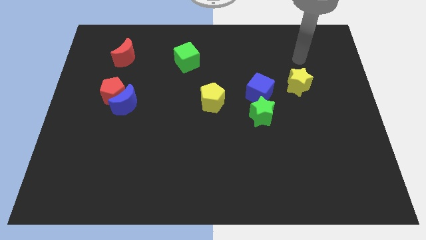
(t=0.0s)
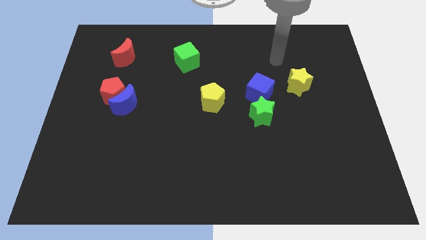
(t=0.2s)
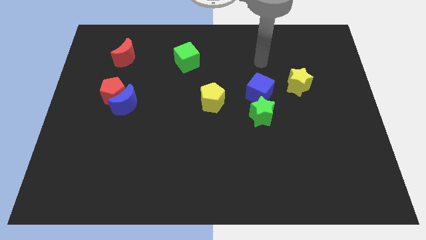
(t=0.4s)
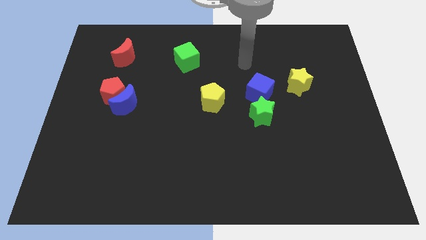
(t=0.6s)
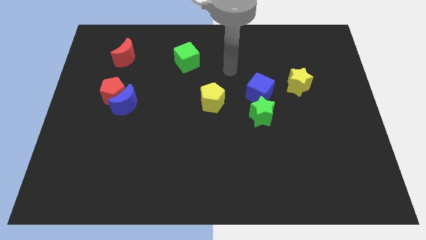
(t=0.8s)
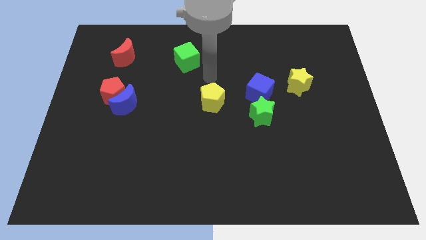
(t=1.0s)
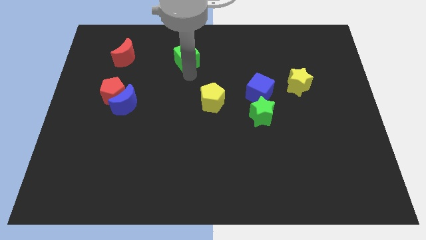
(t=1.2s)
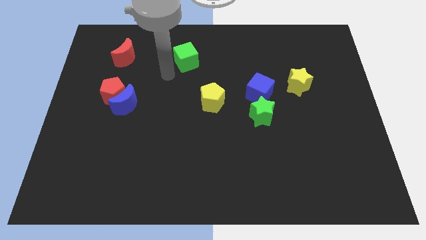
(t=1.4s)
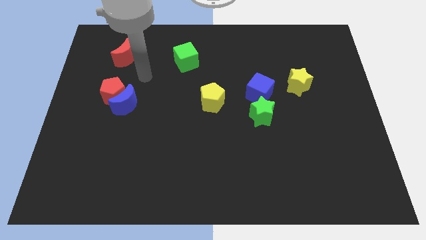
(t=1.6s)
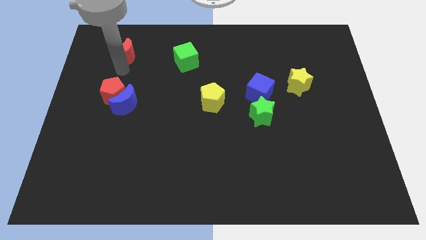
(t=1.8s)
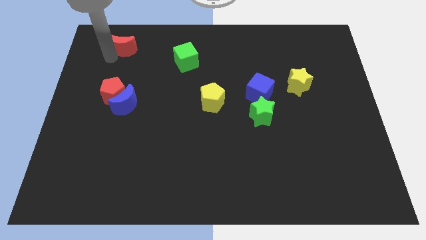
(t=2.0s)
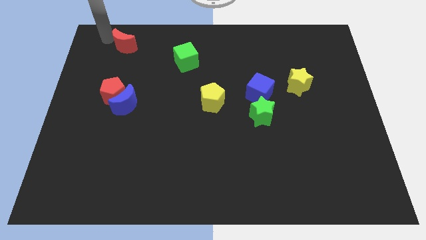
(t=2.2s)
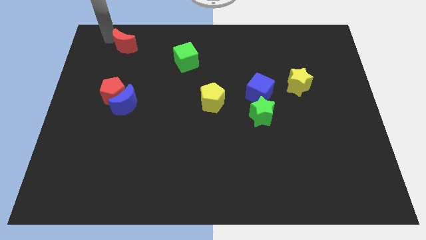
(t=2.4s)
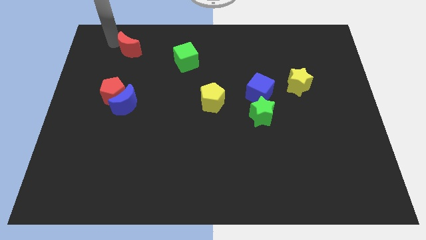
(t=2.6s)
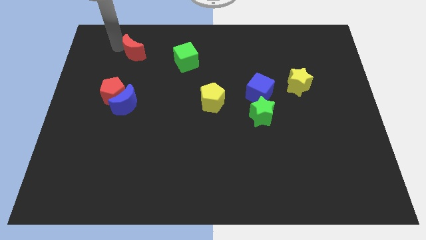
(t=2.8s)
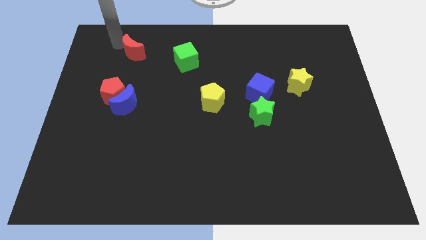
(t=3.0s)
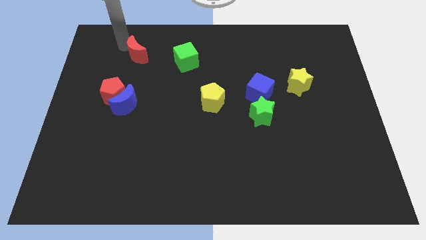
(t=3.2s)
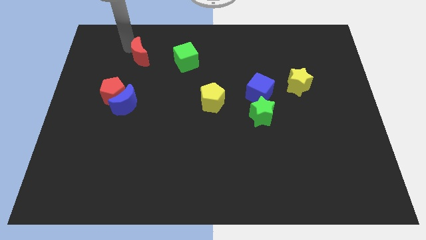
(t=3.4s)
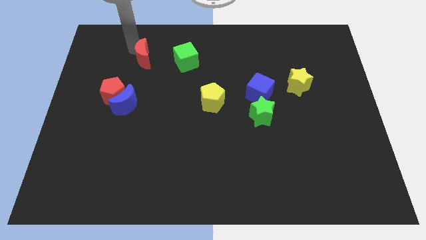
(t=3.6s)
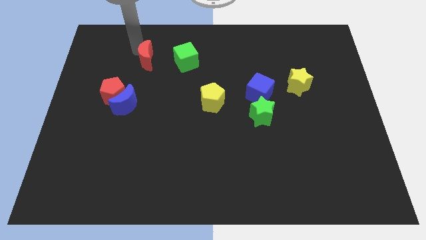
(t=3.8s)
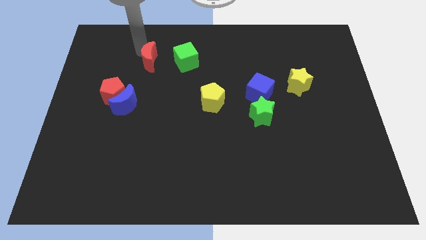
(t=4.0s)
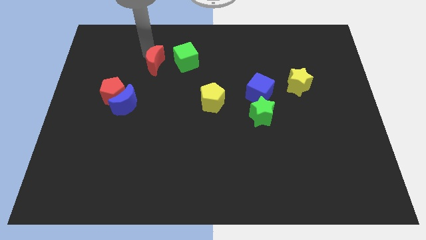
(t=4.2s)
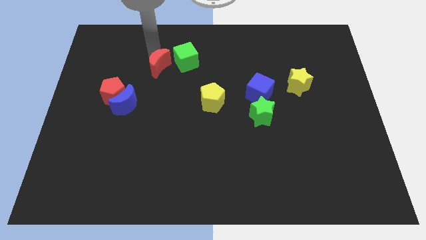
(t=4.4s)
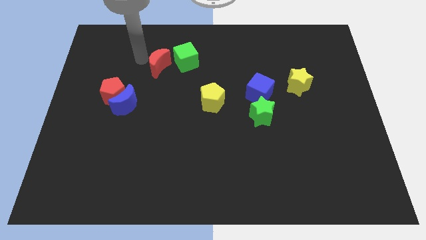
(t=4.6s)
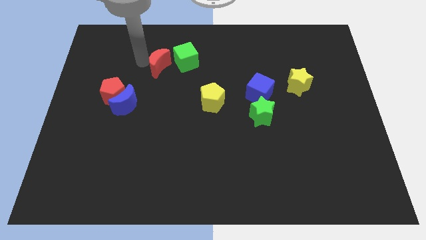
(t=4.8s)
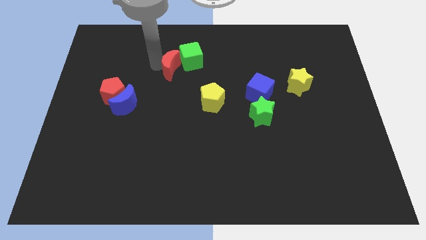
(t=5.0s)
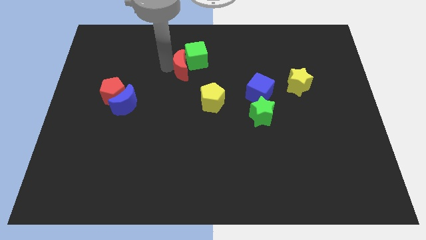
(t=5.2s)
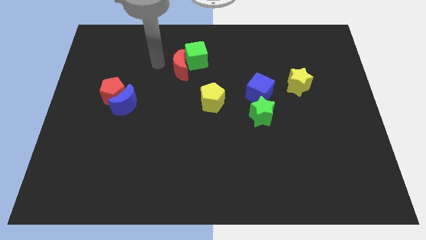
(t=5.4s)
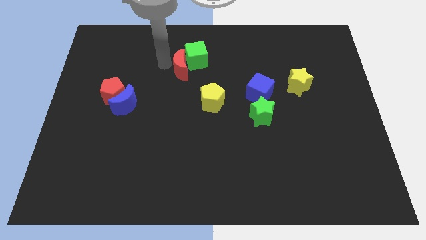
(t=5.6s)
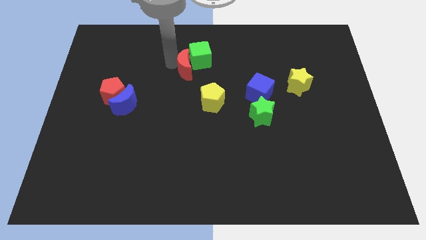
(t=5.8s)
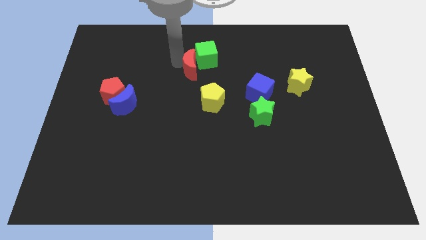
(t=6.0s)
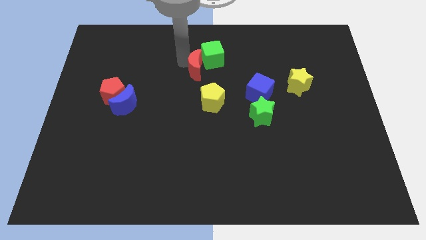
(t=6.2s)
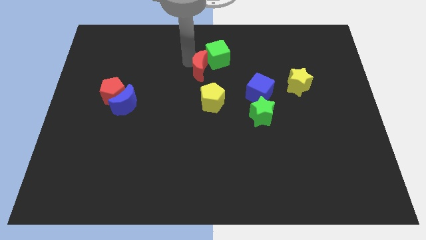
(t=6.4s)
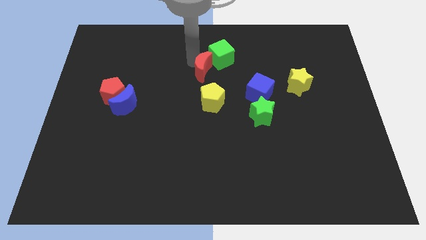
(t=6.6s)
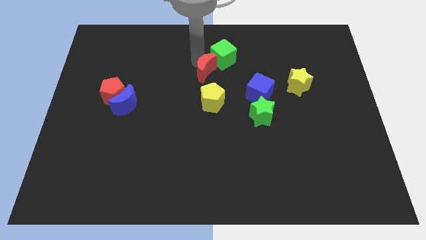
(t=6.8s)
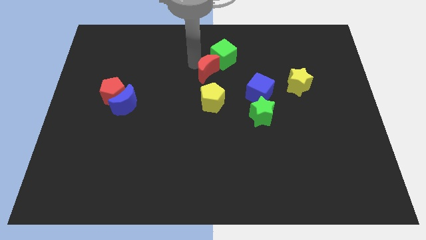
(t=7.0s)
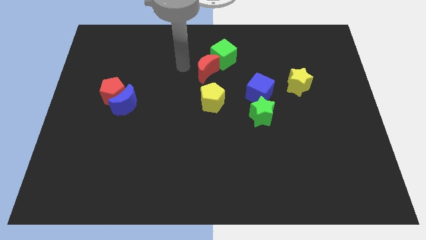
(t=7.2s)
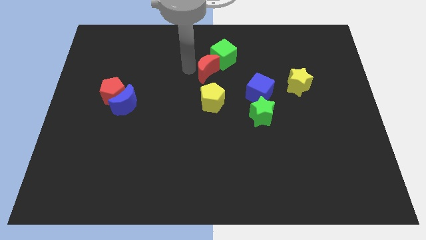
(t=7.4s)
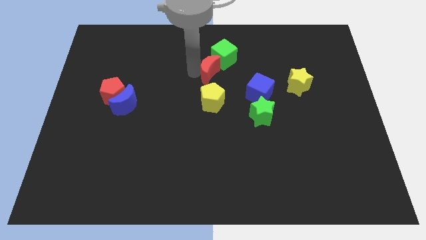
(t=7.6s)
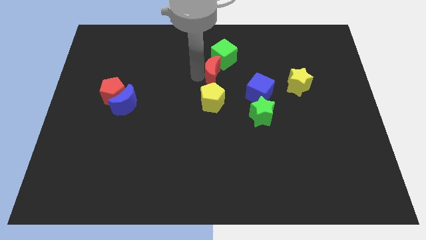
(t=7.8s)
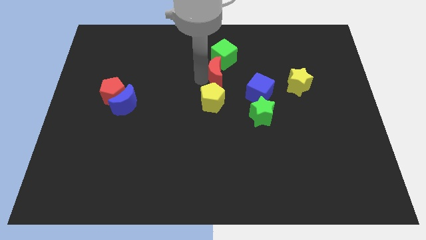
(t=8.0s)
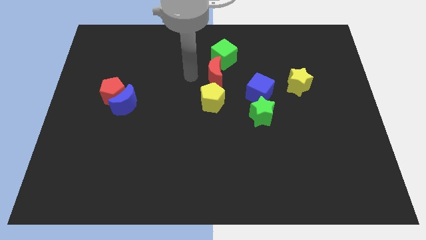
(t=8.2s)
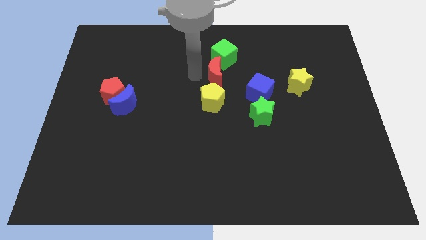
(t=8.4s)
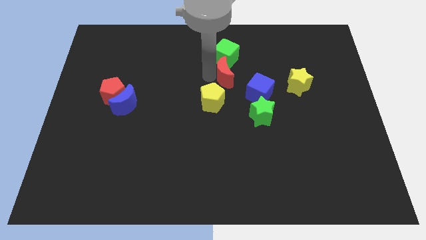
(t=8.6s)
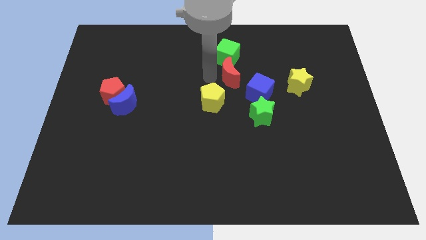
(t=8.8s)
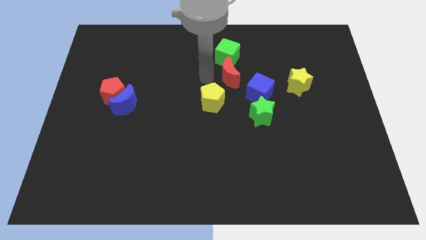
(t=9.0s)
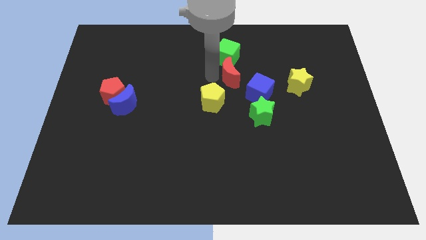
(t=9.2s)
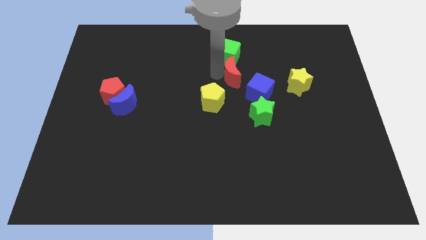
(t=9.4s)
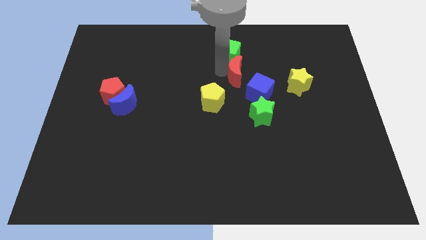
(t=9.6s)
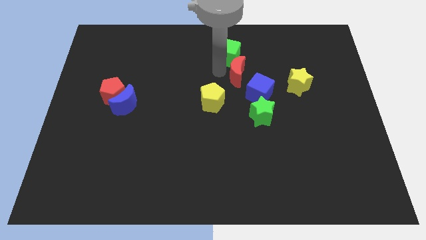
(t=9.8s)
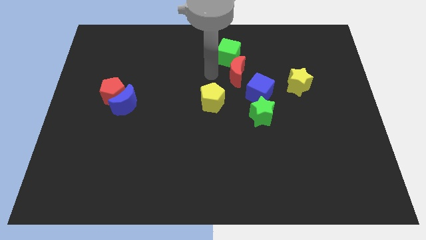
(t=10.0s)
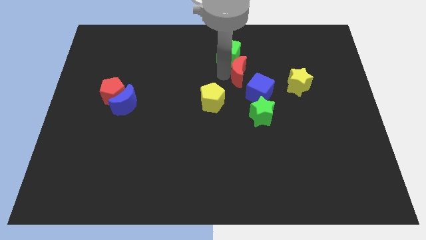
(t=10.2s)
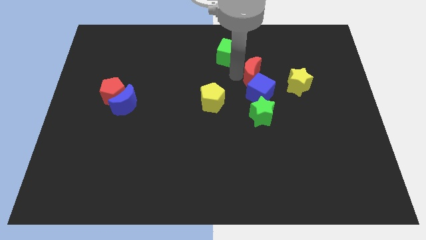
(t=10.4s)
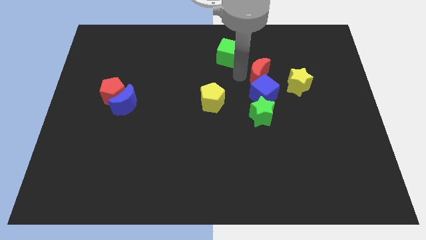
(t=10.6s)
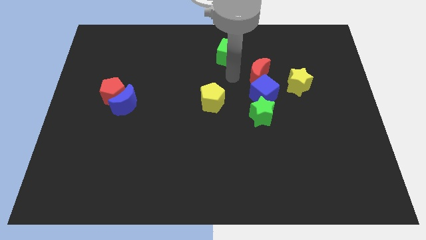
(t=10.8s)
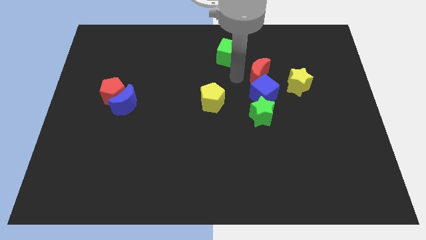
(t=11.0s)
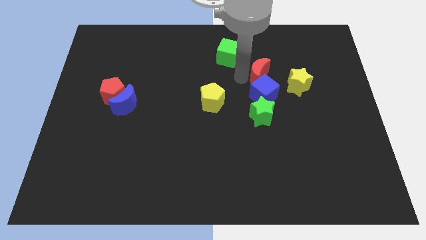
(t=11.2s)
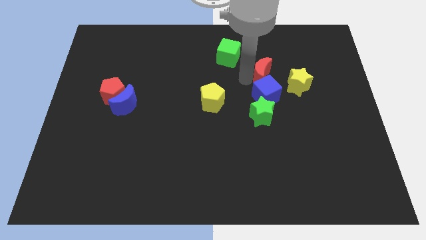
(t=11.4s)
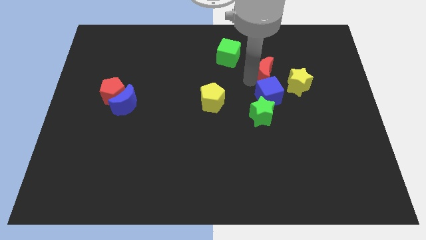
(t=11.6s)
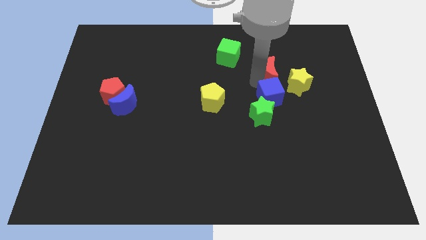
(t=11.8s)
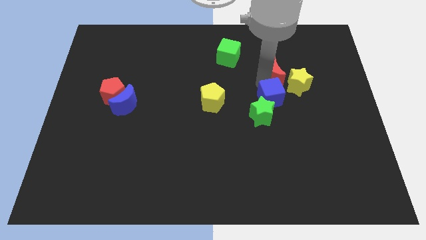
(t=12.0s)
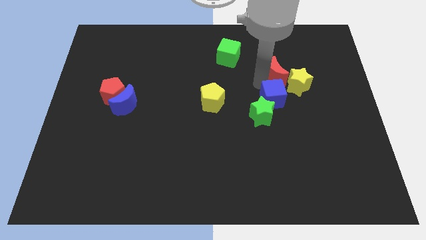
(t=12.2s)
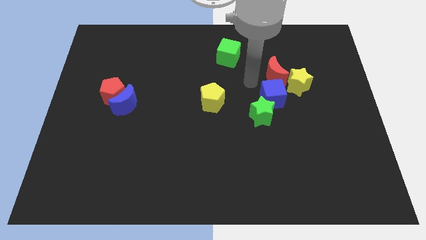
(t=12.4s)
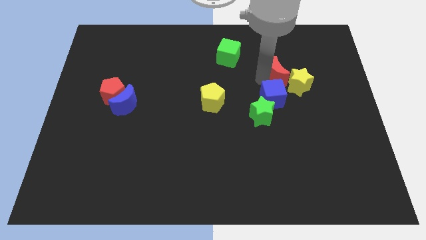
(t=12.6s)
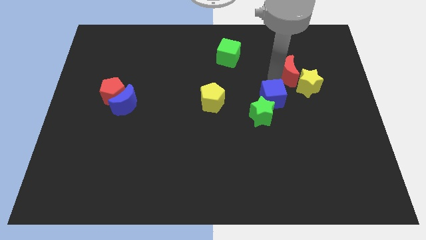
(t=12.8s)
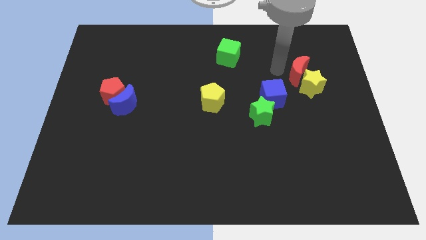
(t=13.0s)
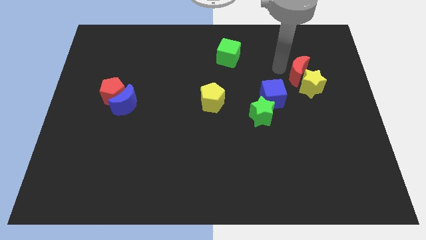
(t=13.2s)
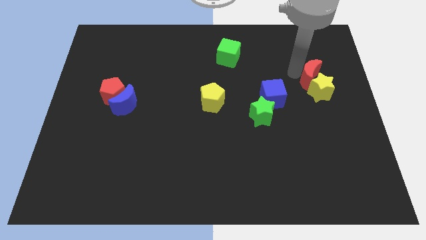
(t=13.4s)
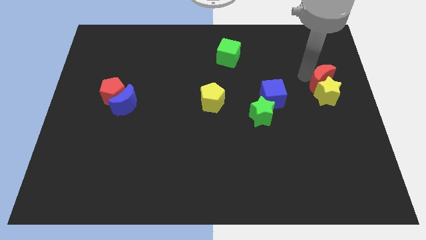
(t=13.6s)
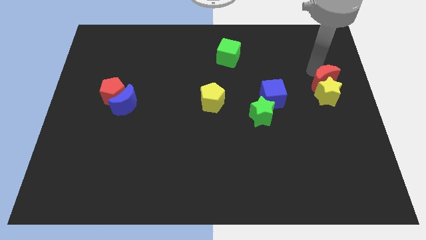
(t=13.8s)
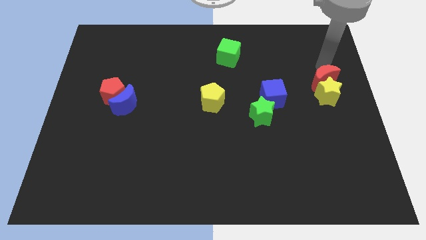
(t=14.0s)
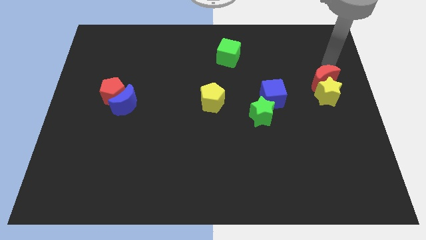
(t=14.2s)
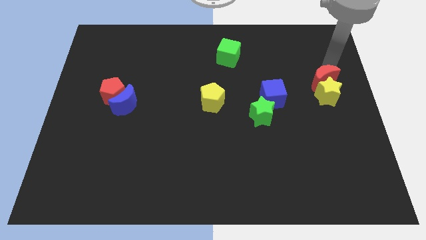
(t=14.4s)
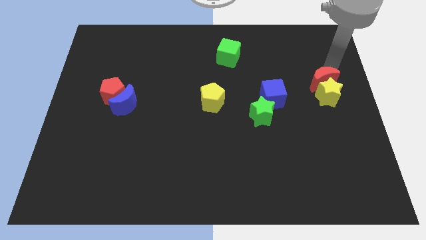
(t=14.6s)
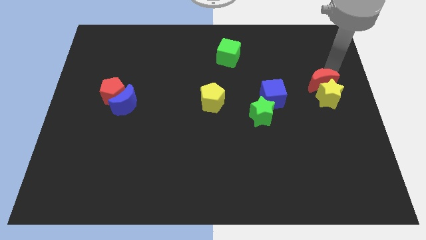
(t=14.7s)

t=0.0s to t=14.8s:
put the red moon to the right of the blue cube

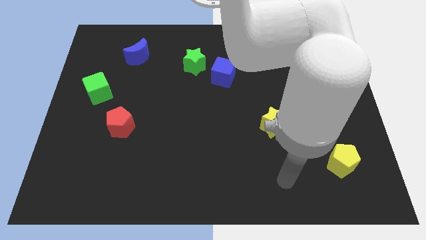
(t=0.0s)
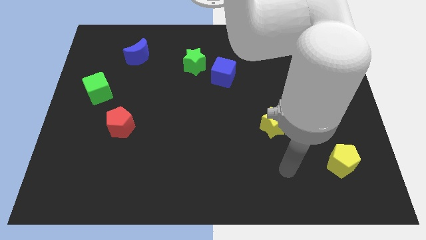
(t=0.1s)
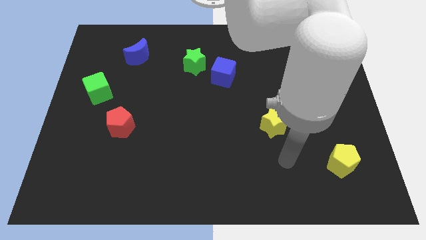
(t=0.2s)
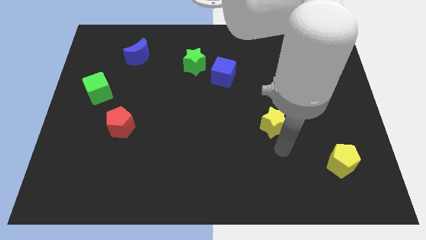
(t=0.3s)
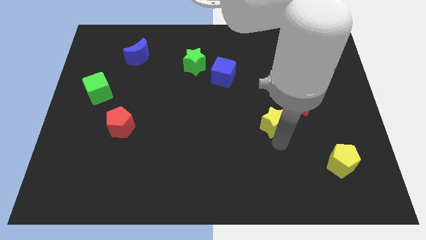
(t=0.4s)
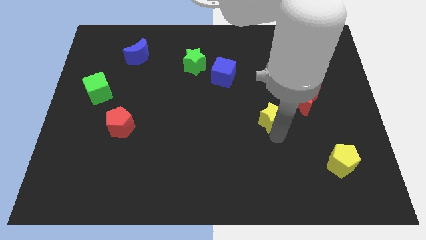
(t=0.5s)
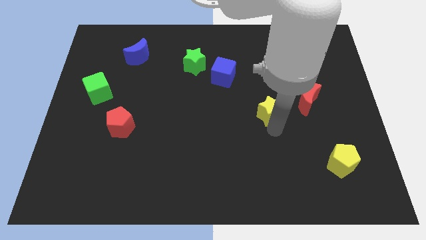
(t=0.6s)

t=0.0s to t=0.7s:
move the yellow star left of the red moon
